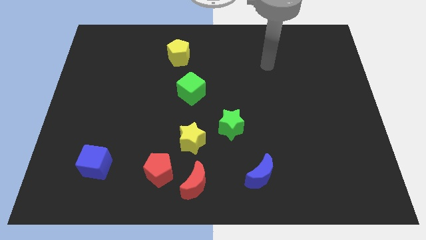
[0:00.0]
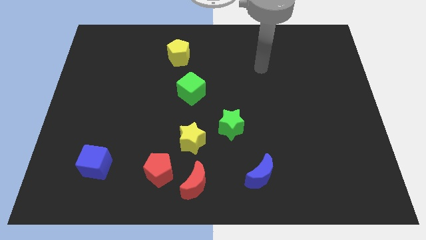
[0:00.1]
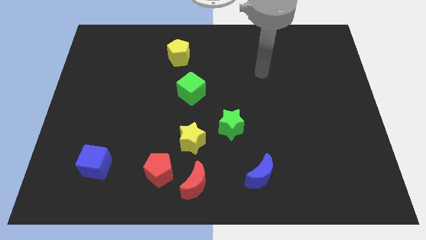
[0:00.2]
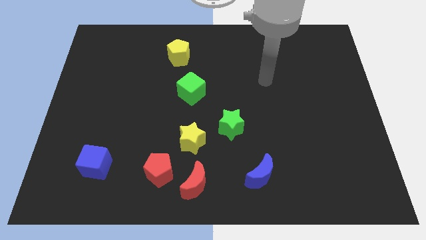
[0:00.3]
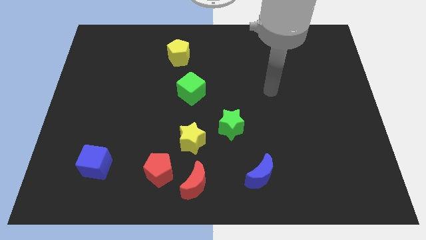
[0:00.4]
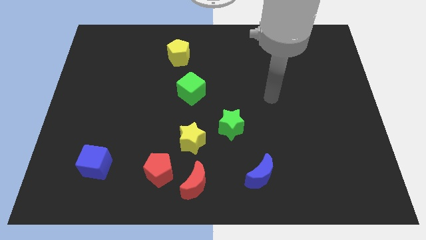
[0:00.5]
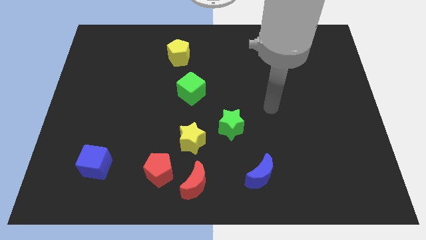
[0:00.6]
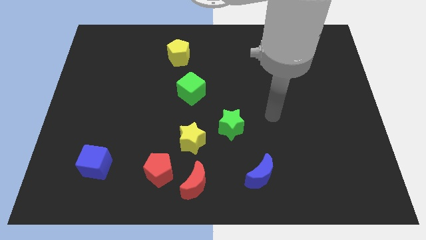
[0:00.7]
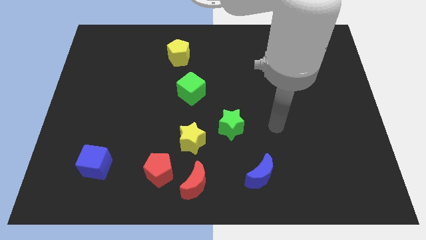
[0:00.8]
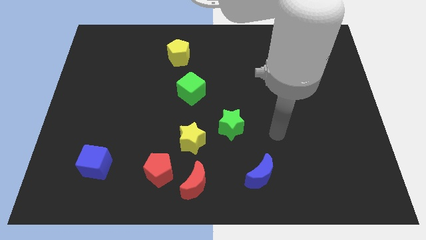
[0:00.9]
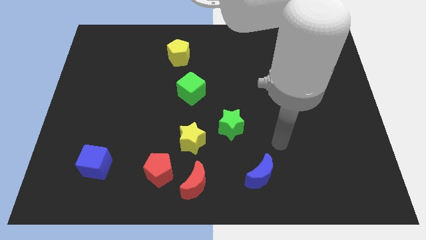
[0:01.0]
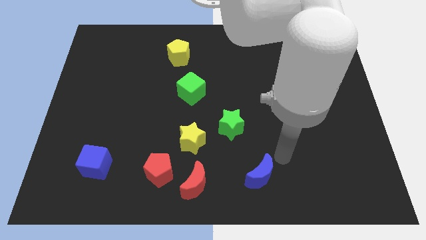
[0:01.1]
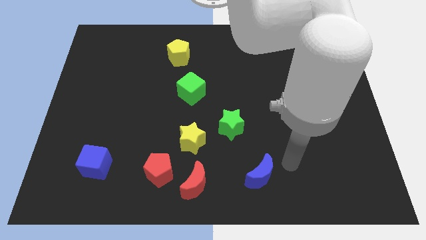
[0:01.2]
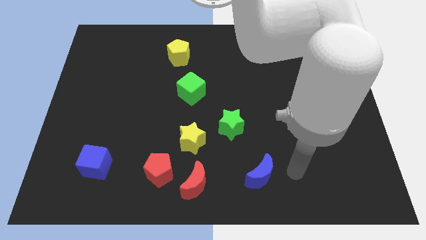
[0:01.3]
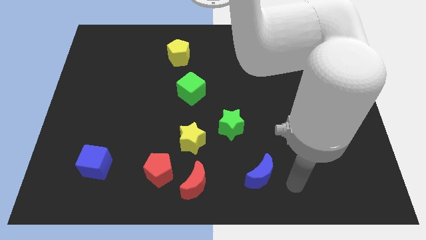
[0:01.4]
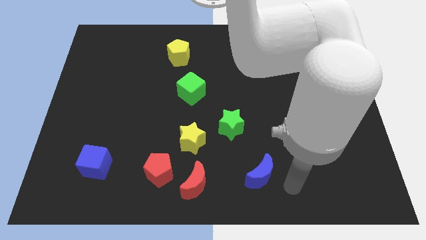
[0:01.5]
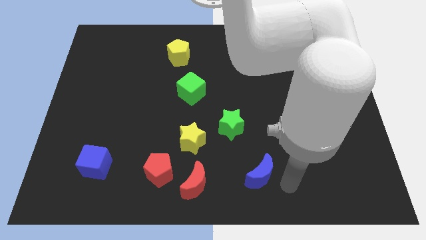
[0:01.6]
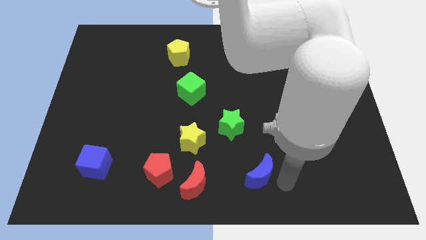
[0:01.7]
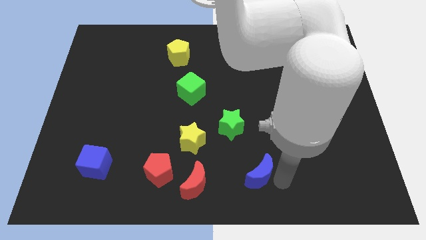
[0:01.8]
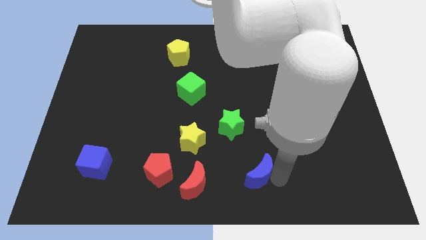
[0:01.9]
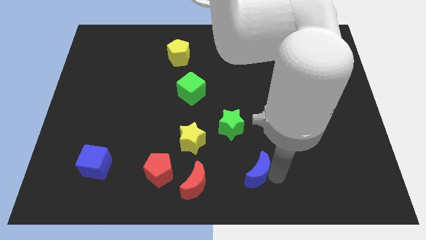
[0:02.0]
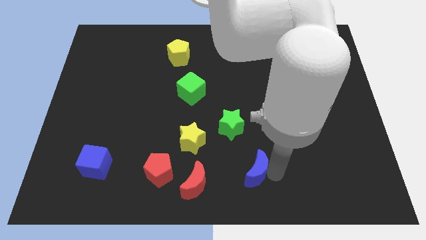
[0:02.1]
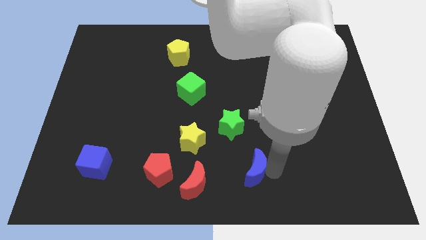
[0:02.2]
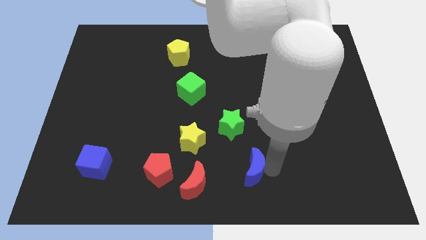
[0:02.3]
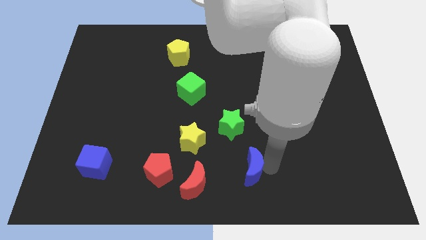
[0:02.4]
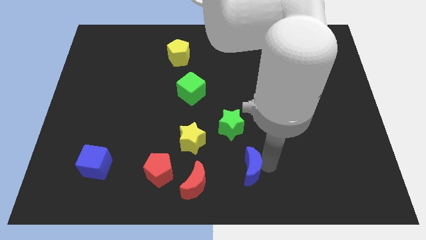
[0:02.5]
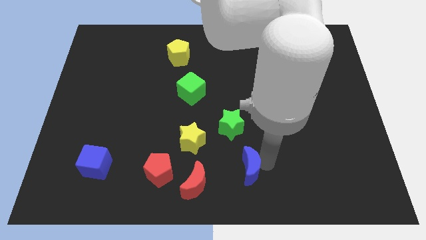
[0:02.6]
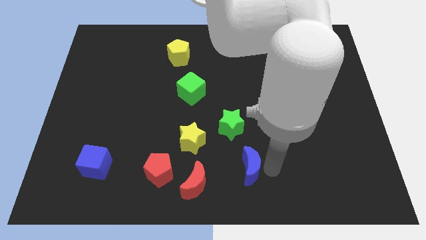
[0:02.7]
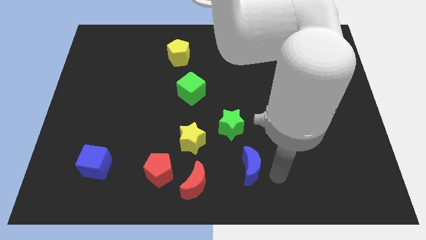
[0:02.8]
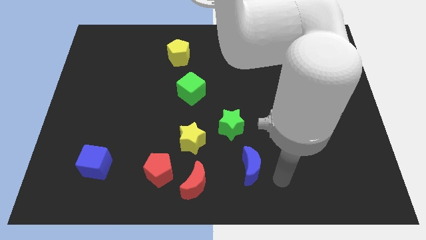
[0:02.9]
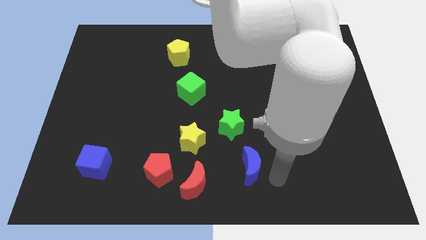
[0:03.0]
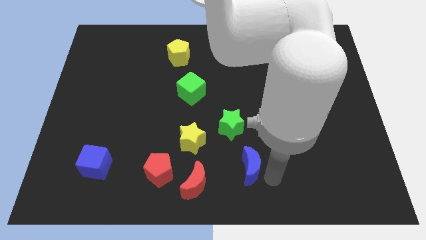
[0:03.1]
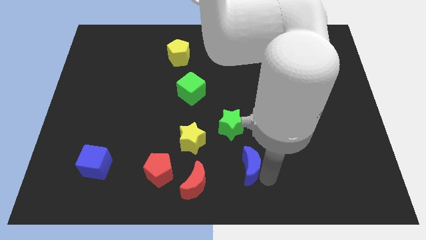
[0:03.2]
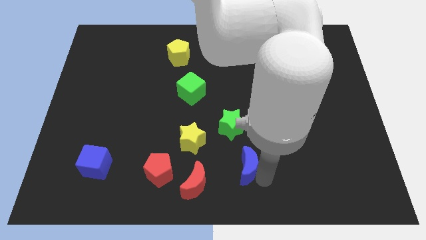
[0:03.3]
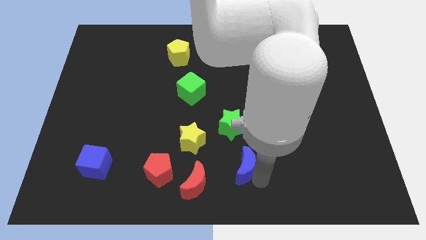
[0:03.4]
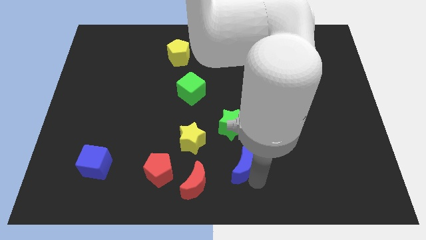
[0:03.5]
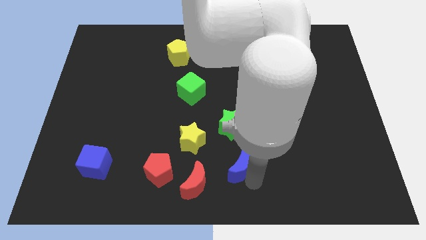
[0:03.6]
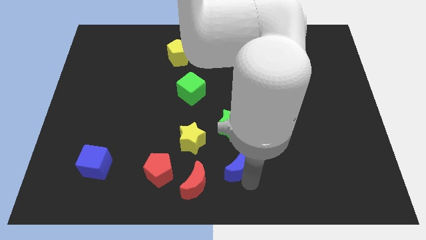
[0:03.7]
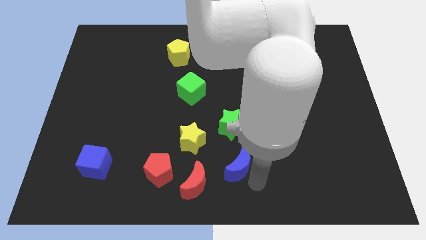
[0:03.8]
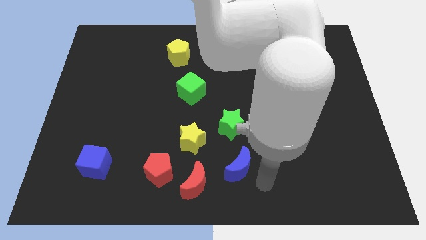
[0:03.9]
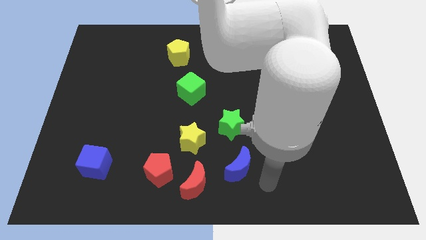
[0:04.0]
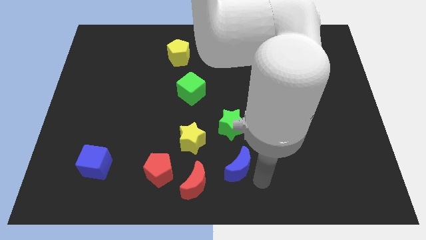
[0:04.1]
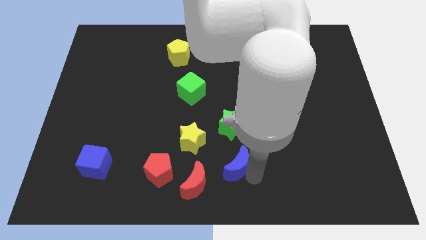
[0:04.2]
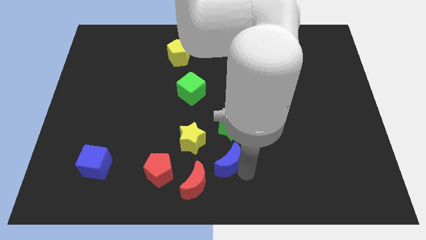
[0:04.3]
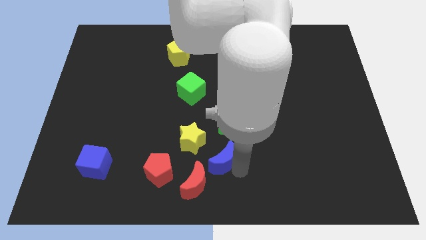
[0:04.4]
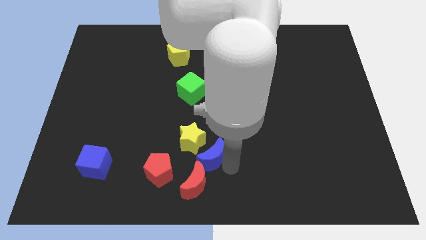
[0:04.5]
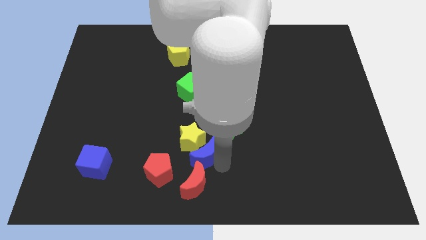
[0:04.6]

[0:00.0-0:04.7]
put the blue moon to the yellow star

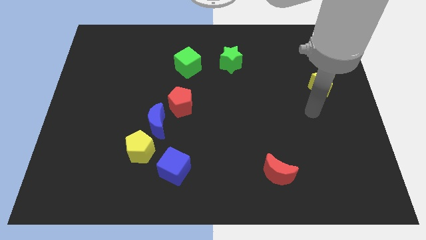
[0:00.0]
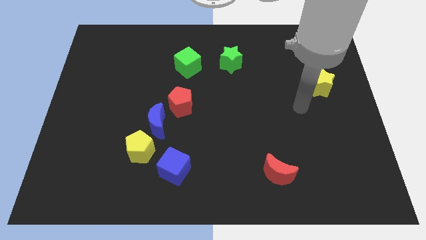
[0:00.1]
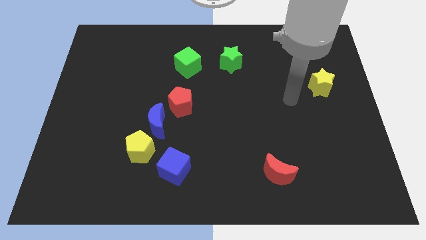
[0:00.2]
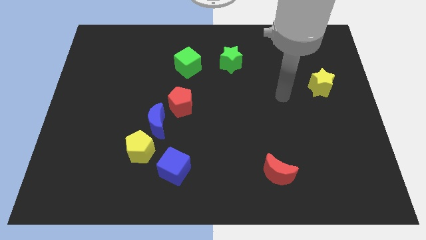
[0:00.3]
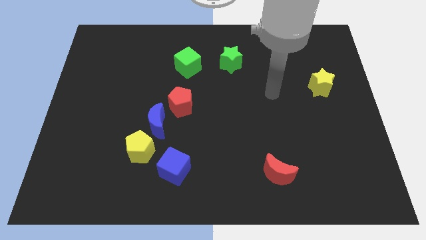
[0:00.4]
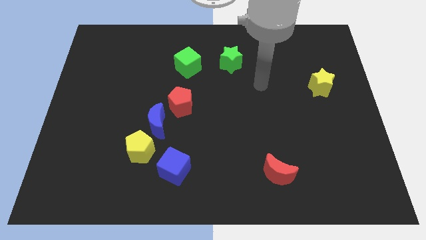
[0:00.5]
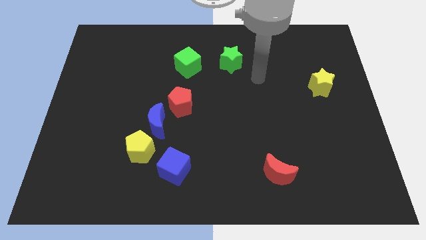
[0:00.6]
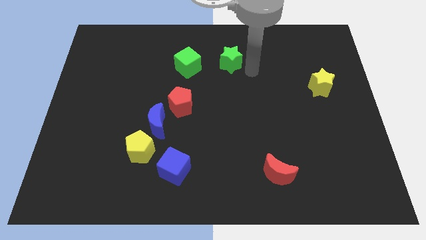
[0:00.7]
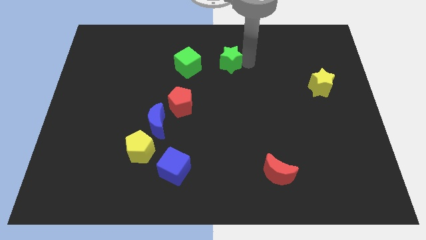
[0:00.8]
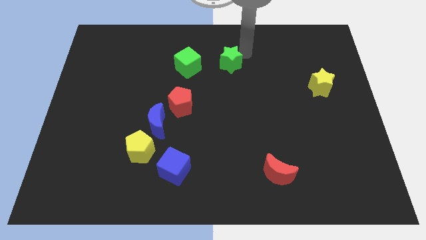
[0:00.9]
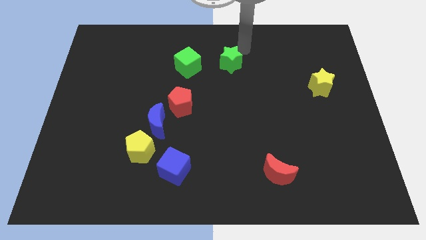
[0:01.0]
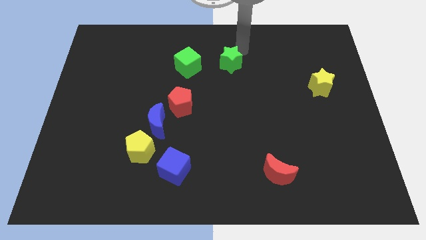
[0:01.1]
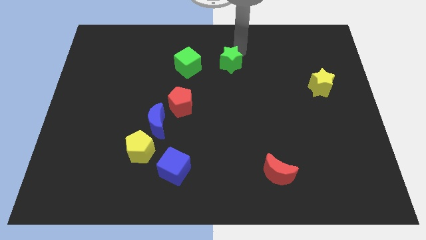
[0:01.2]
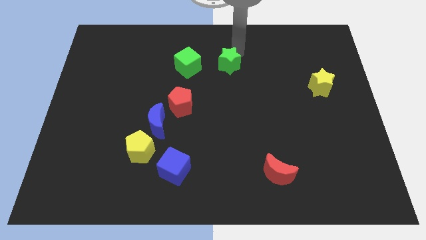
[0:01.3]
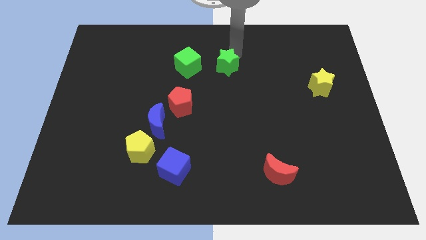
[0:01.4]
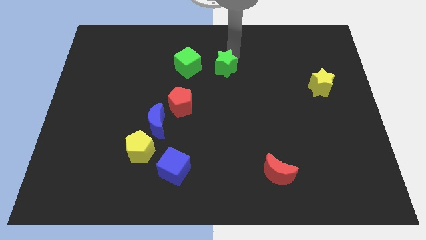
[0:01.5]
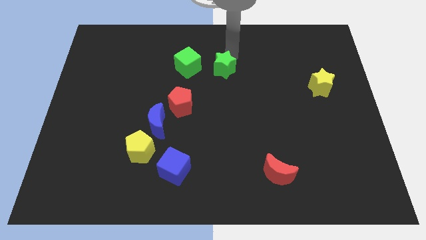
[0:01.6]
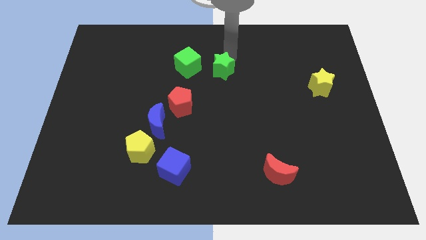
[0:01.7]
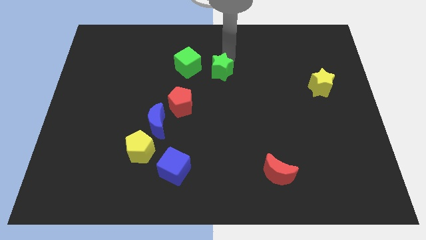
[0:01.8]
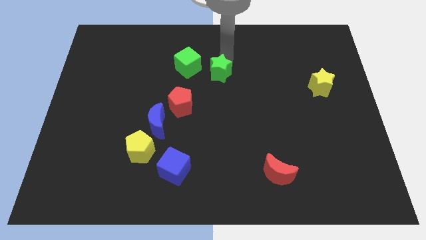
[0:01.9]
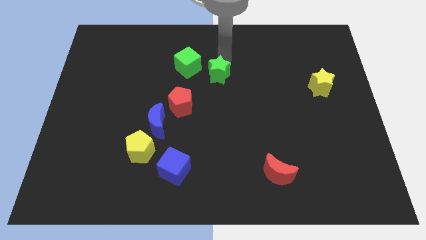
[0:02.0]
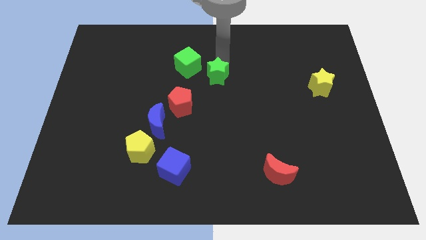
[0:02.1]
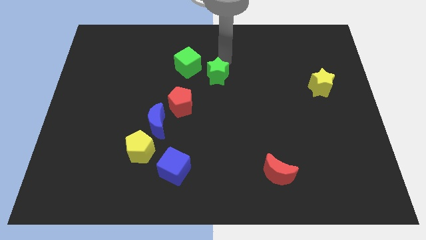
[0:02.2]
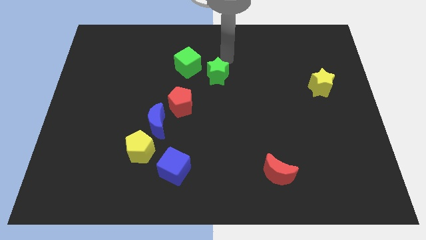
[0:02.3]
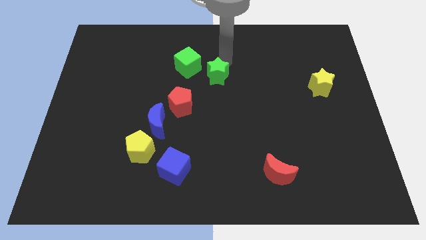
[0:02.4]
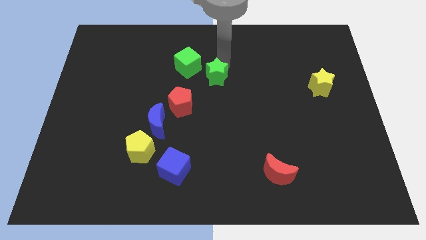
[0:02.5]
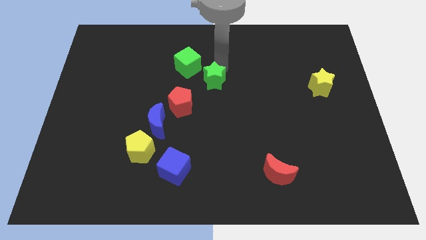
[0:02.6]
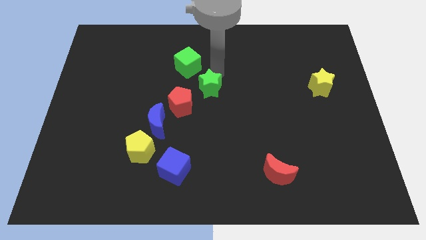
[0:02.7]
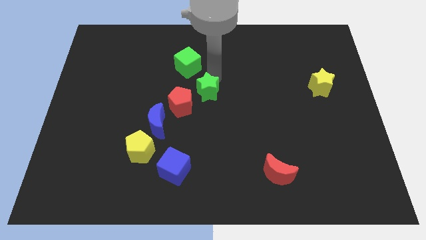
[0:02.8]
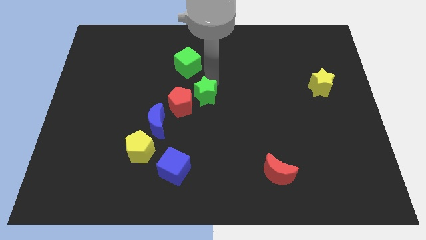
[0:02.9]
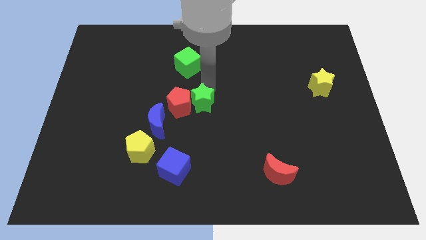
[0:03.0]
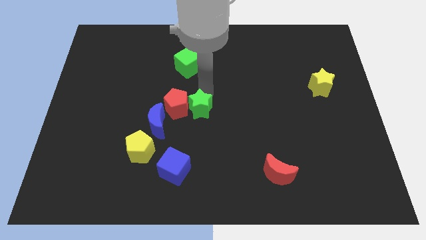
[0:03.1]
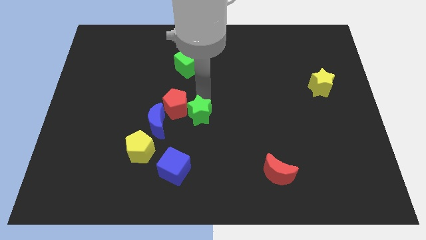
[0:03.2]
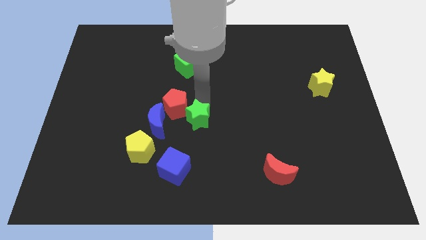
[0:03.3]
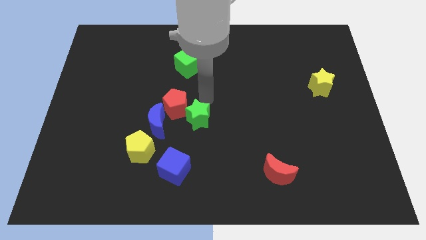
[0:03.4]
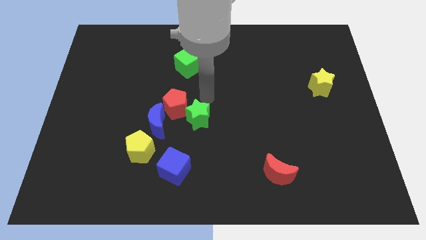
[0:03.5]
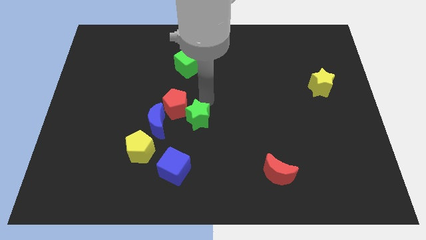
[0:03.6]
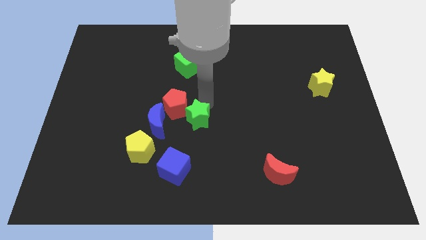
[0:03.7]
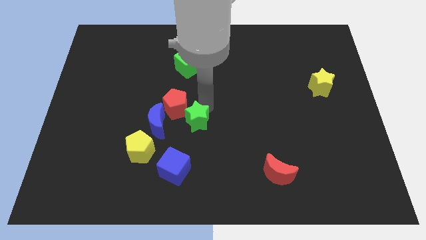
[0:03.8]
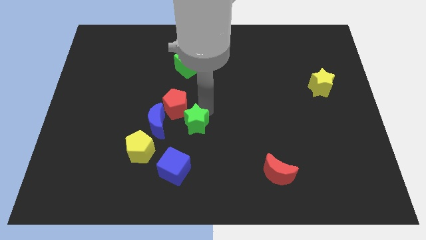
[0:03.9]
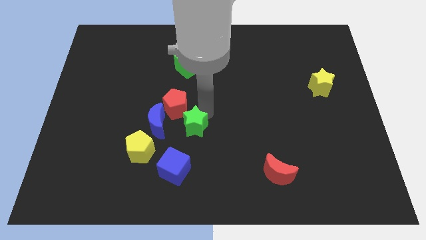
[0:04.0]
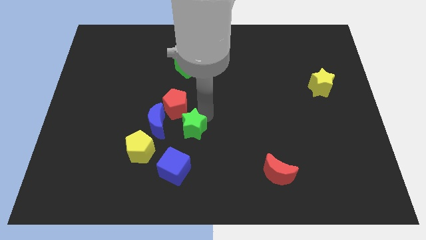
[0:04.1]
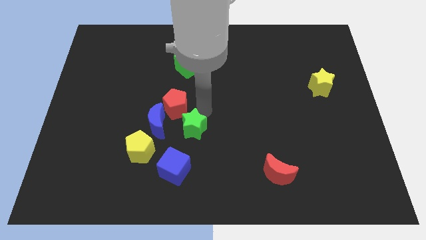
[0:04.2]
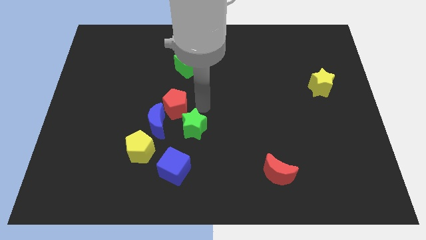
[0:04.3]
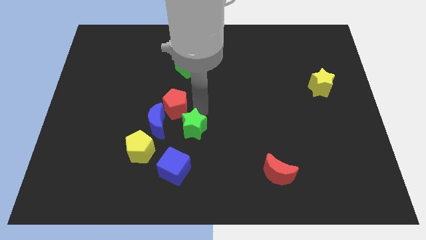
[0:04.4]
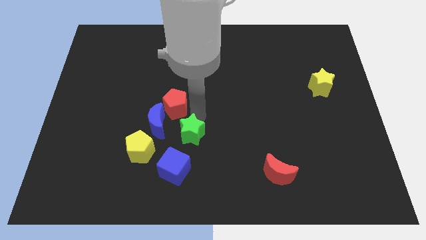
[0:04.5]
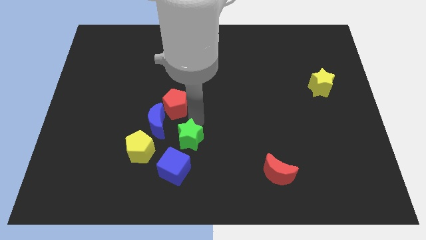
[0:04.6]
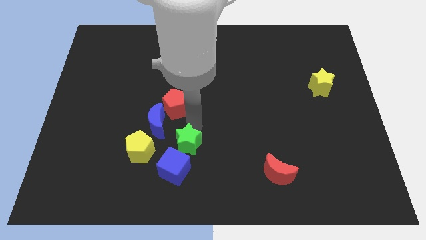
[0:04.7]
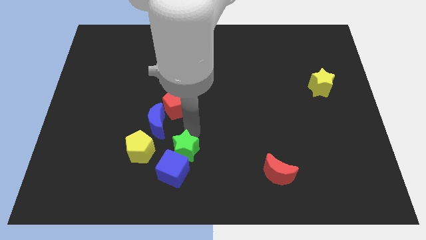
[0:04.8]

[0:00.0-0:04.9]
slide the green star towards the blue cube
